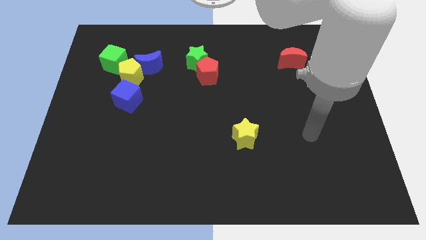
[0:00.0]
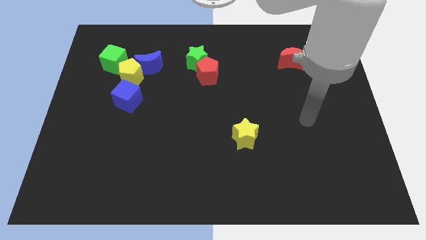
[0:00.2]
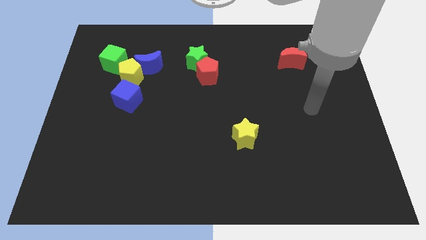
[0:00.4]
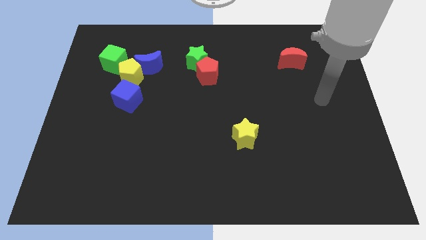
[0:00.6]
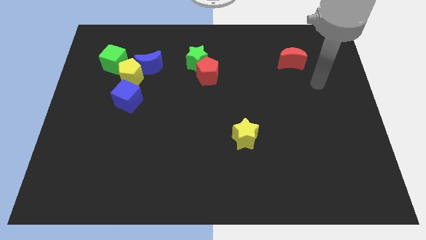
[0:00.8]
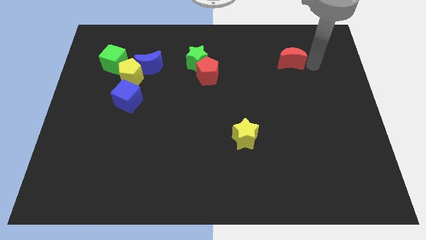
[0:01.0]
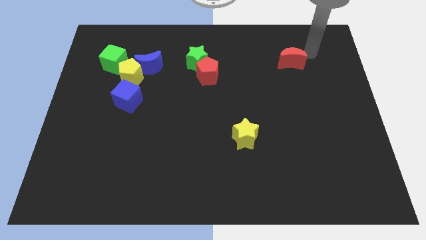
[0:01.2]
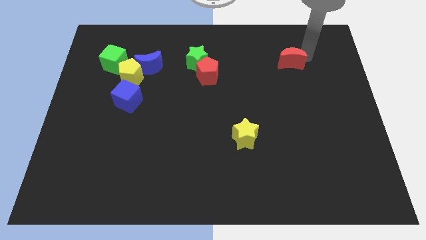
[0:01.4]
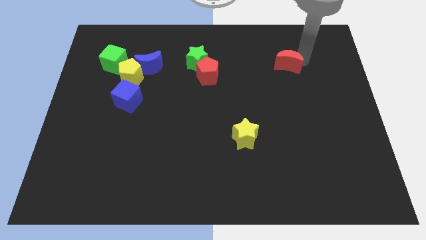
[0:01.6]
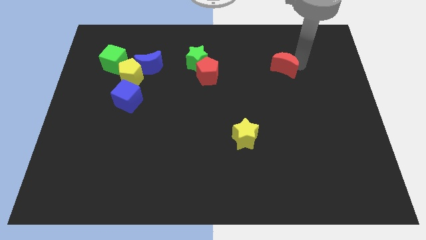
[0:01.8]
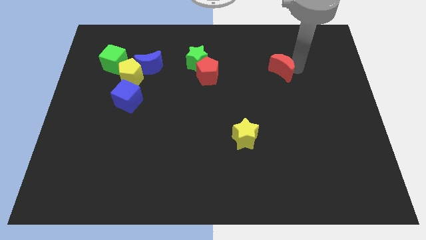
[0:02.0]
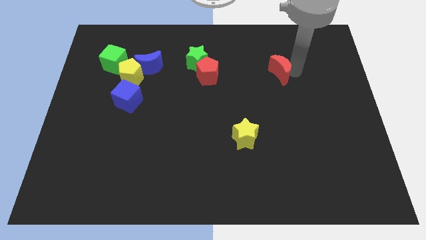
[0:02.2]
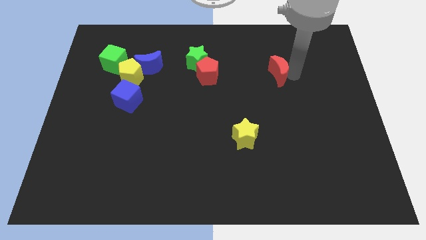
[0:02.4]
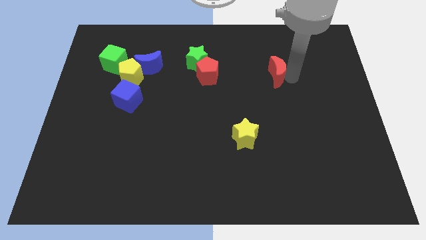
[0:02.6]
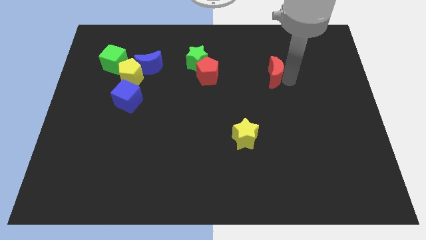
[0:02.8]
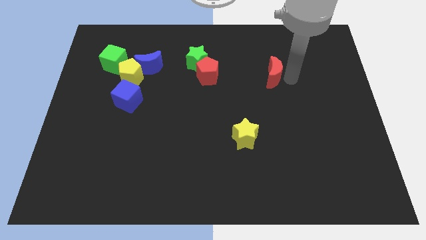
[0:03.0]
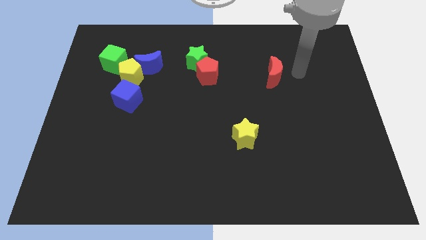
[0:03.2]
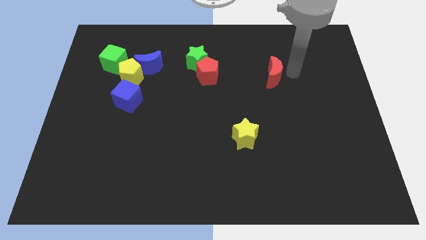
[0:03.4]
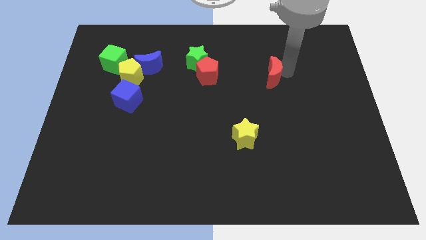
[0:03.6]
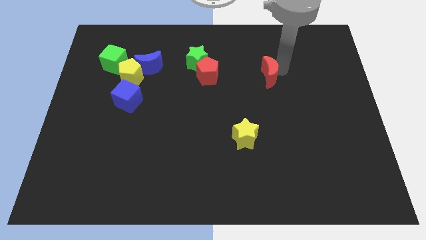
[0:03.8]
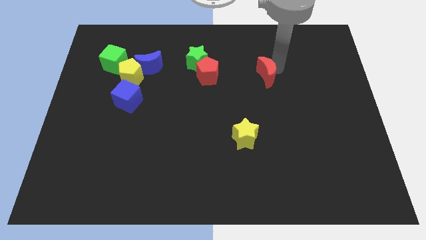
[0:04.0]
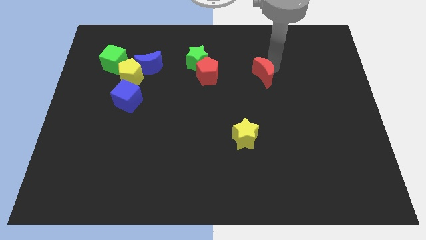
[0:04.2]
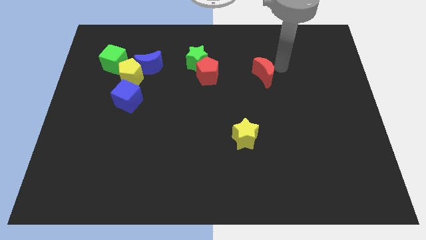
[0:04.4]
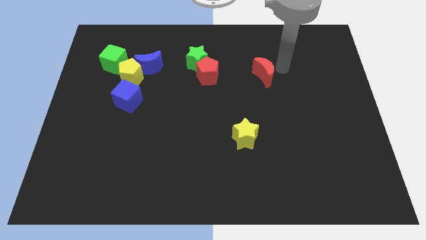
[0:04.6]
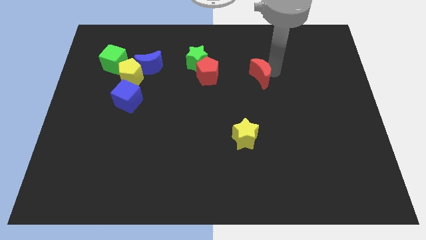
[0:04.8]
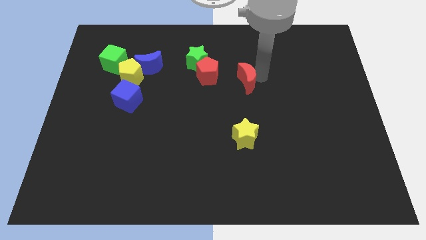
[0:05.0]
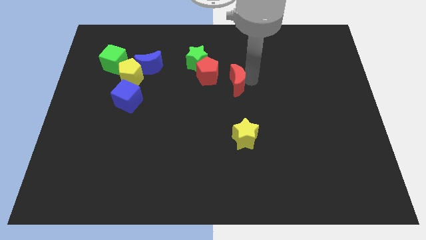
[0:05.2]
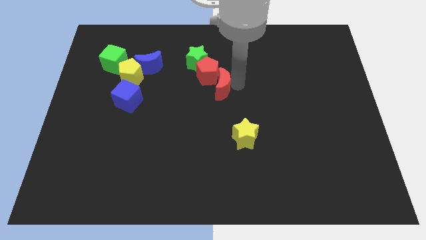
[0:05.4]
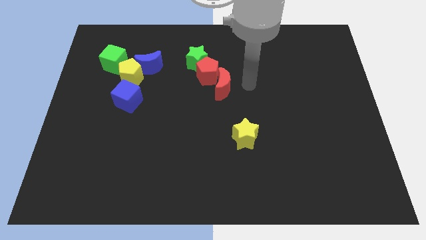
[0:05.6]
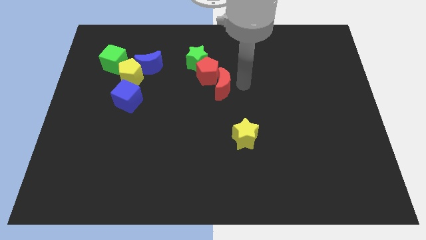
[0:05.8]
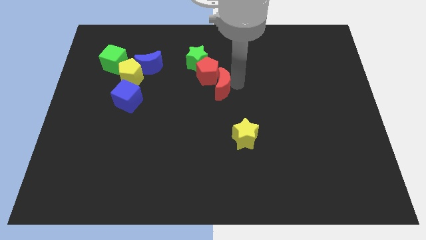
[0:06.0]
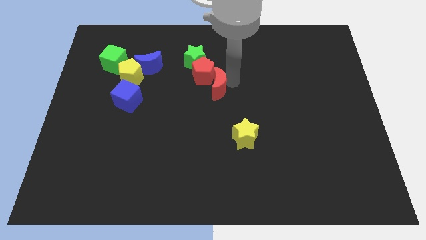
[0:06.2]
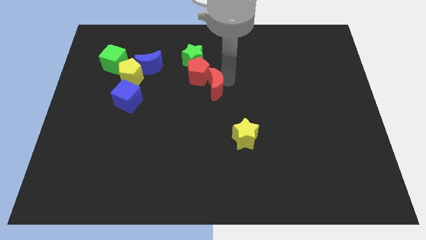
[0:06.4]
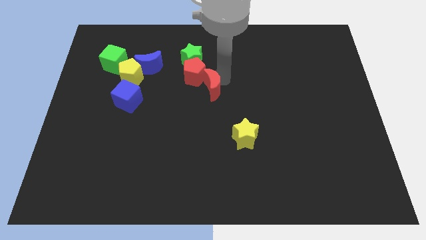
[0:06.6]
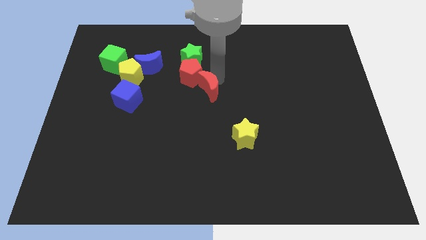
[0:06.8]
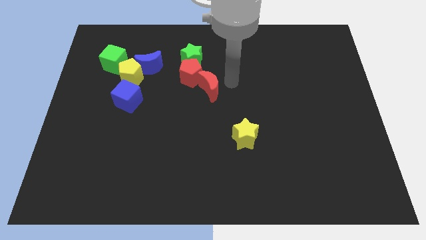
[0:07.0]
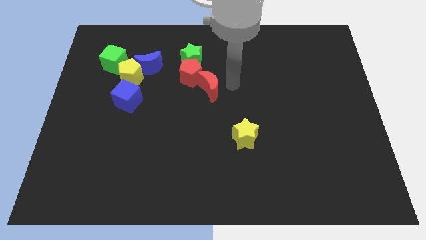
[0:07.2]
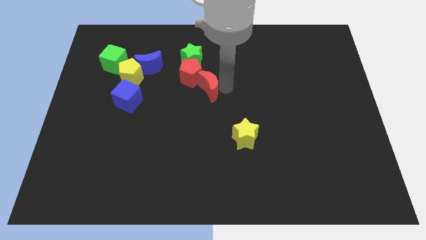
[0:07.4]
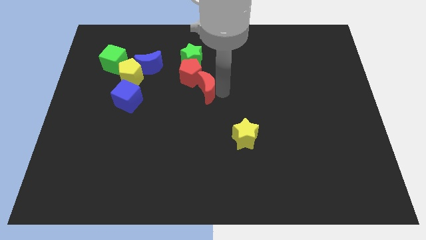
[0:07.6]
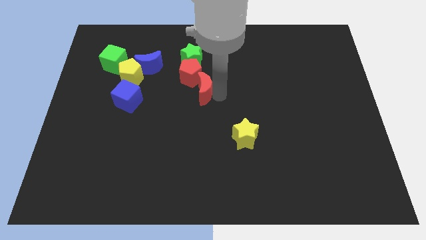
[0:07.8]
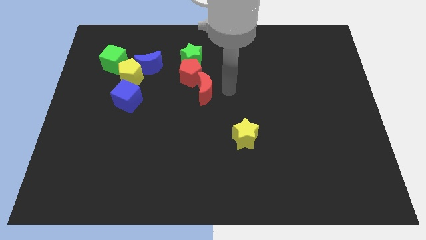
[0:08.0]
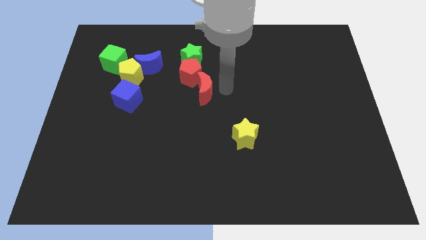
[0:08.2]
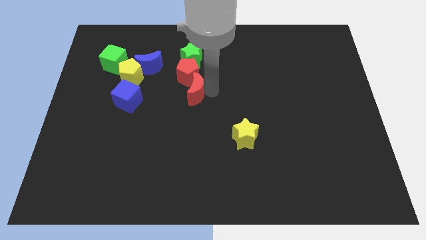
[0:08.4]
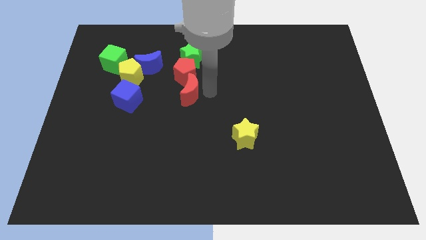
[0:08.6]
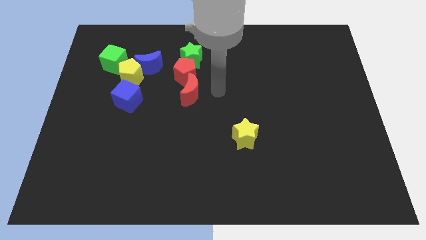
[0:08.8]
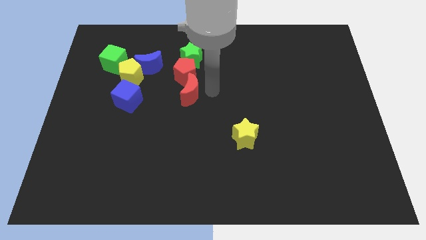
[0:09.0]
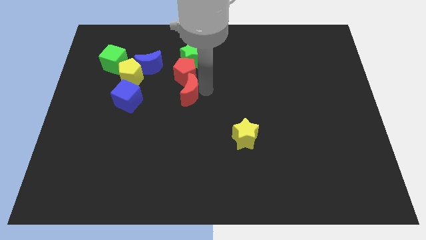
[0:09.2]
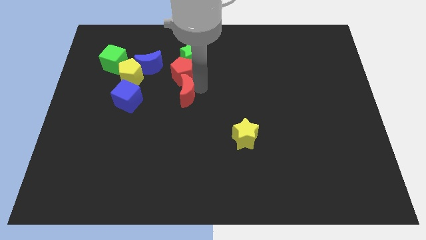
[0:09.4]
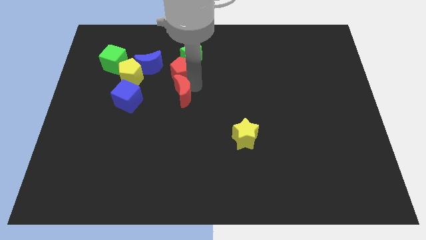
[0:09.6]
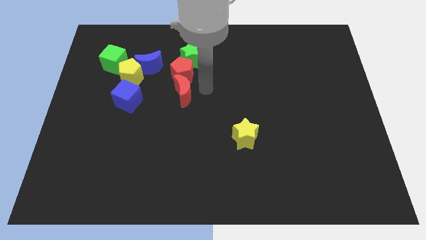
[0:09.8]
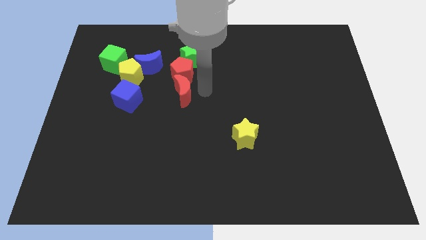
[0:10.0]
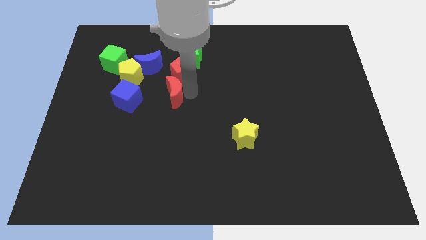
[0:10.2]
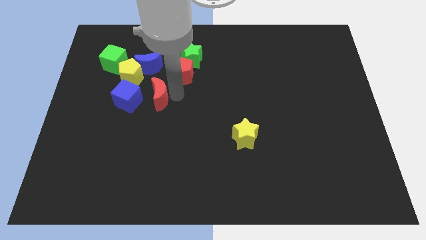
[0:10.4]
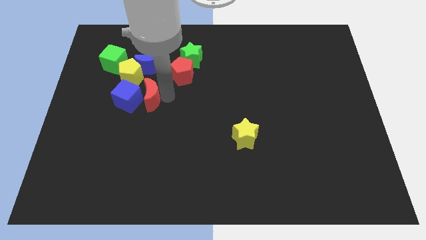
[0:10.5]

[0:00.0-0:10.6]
move the red moon to the blue cube

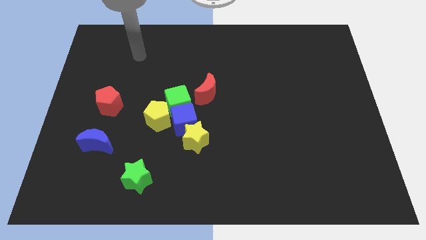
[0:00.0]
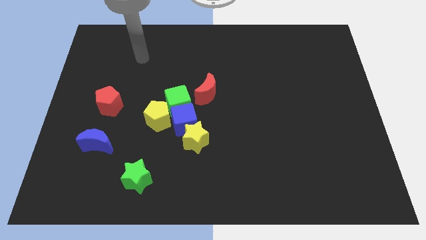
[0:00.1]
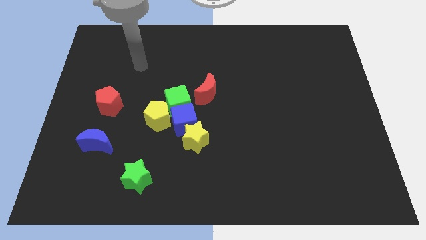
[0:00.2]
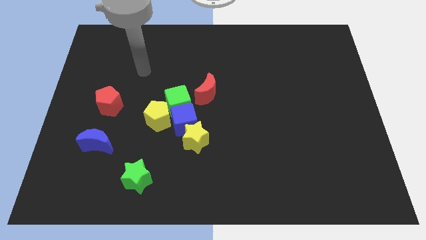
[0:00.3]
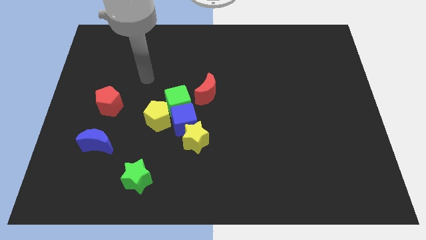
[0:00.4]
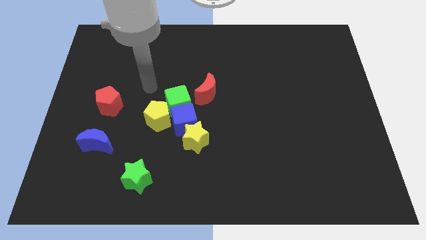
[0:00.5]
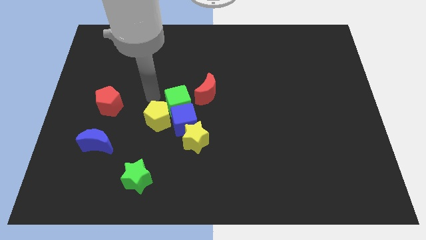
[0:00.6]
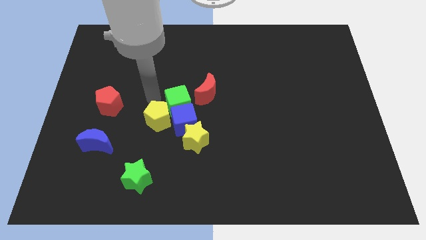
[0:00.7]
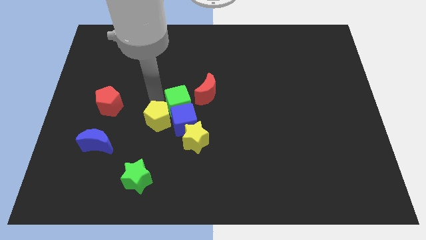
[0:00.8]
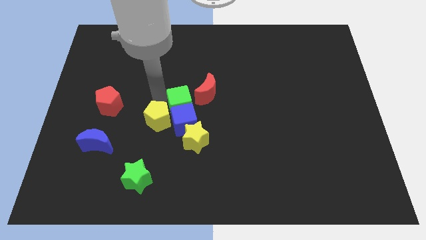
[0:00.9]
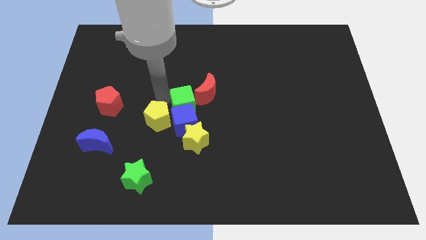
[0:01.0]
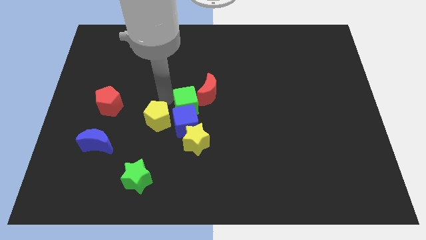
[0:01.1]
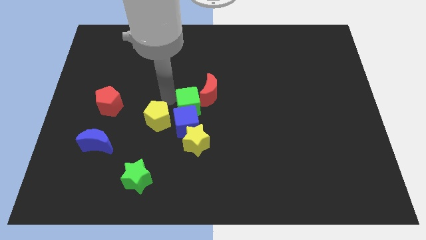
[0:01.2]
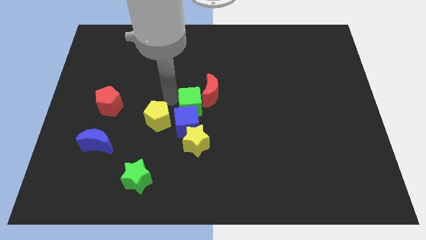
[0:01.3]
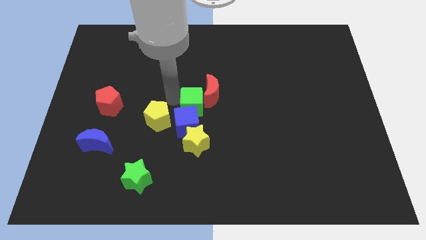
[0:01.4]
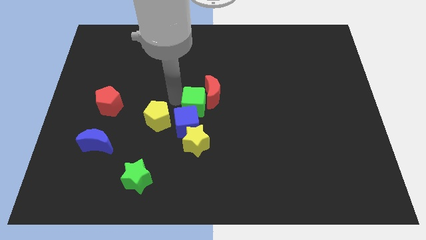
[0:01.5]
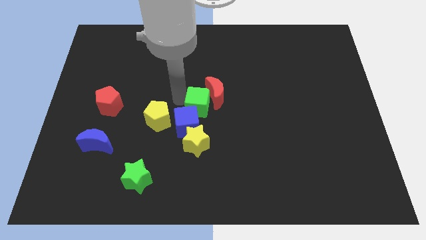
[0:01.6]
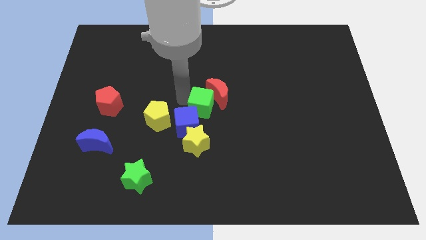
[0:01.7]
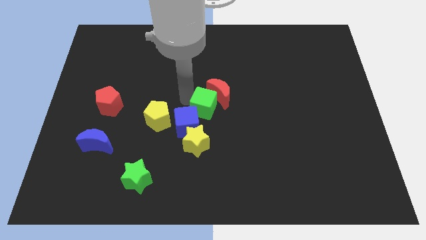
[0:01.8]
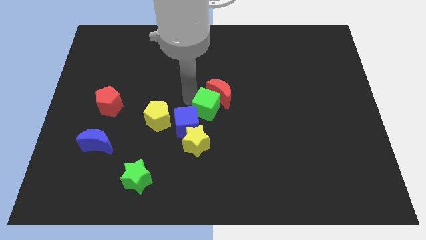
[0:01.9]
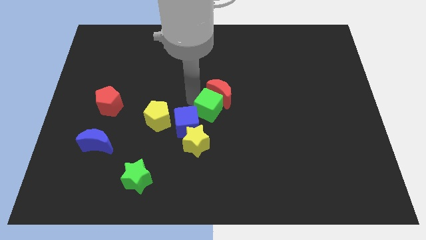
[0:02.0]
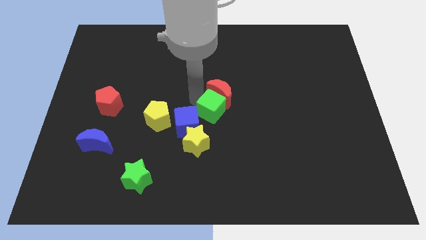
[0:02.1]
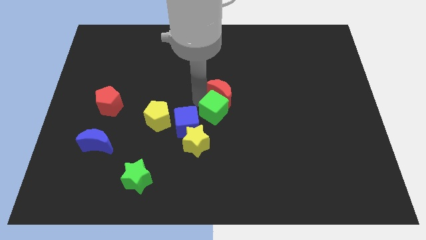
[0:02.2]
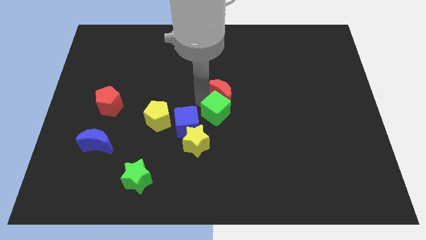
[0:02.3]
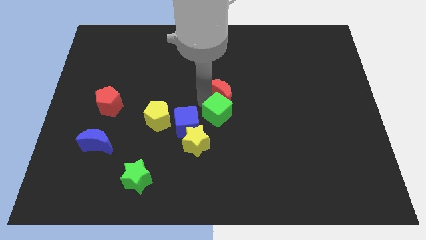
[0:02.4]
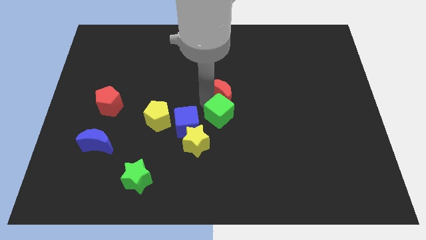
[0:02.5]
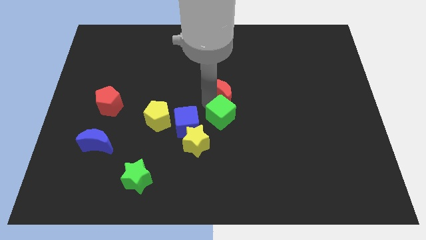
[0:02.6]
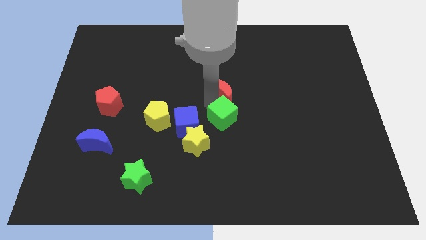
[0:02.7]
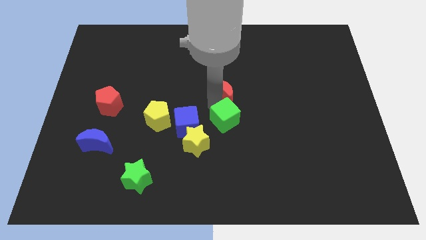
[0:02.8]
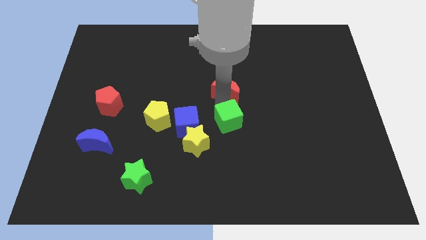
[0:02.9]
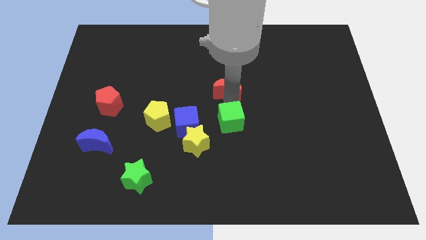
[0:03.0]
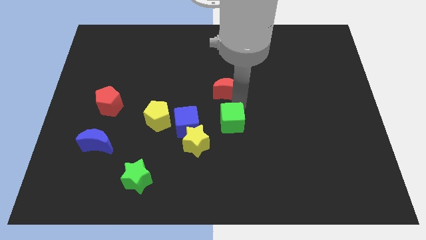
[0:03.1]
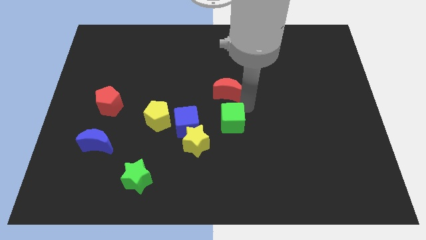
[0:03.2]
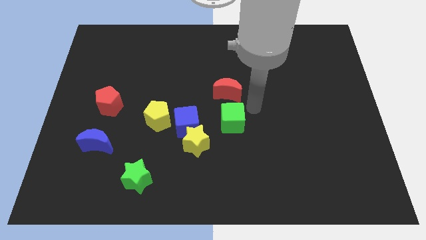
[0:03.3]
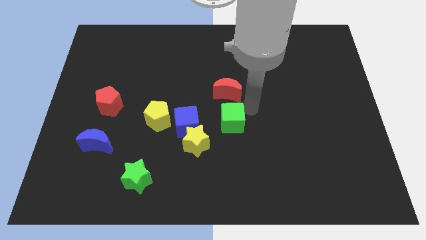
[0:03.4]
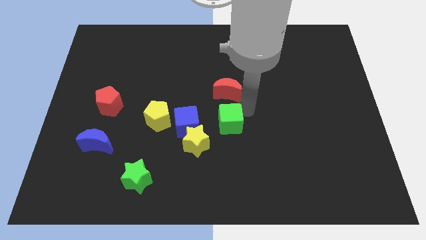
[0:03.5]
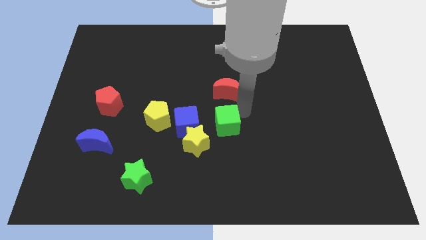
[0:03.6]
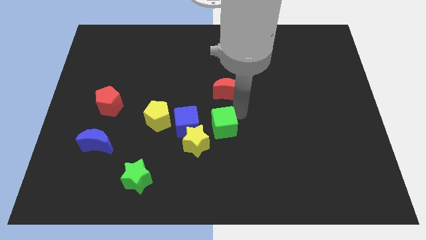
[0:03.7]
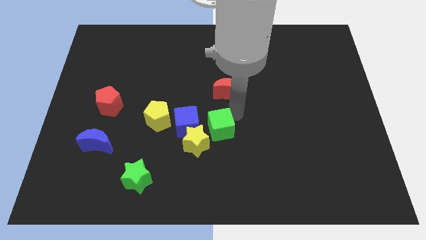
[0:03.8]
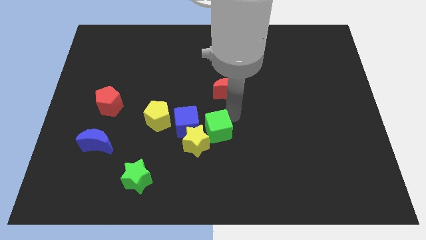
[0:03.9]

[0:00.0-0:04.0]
push the green cube towards the yellow star
